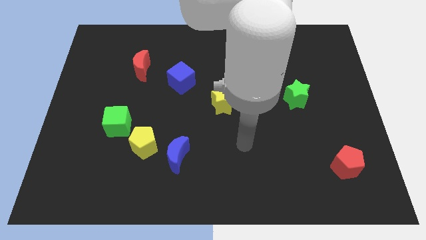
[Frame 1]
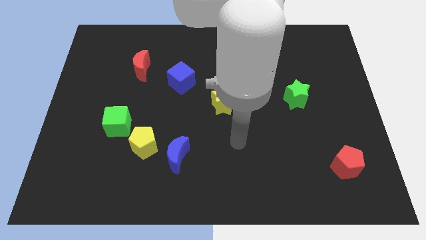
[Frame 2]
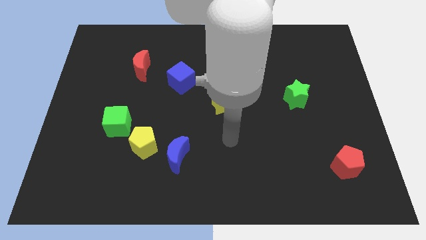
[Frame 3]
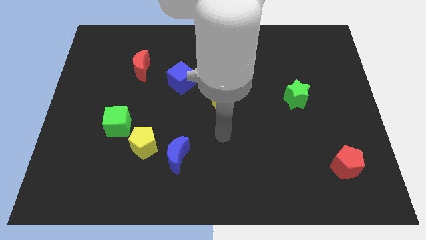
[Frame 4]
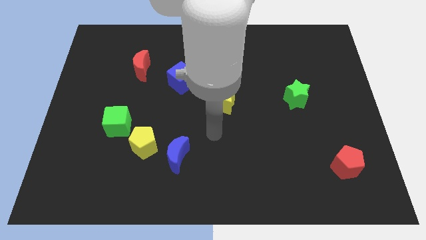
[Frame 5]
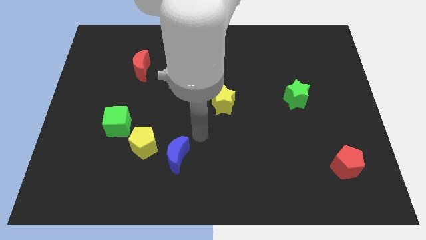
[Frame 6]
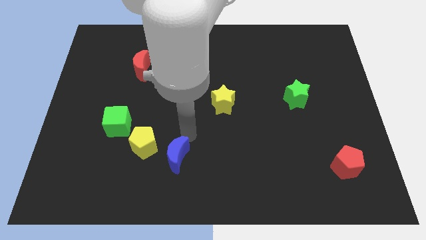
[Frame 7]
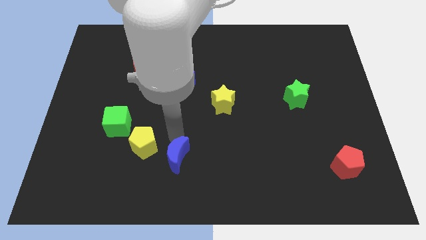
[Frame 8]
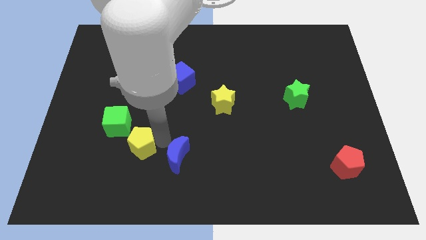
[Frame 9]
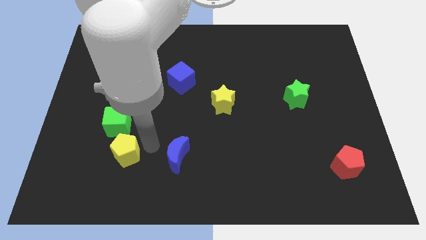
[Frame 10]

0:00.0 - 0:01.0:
move the blue moon away from the yellow pentagon

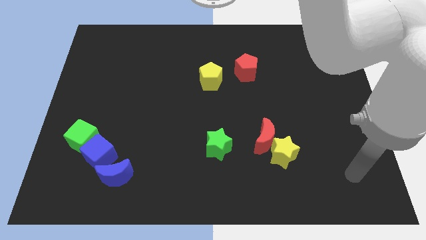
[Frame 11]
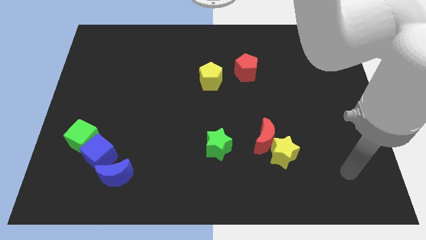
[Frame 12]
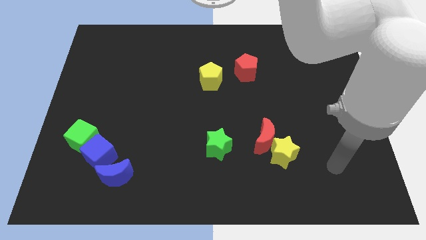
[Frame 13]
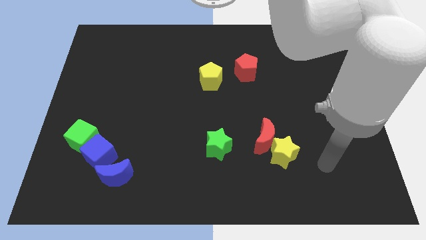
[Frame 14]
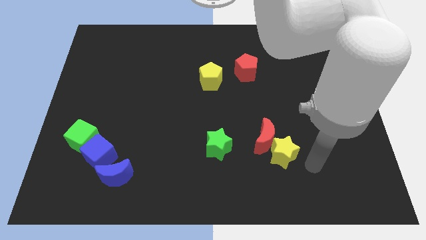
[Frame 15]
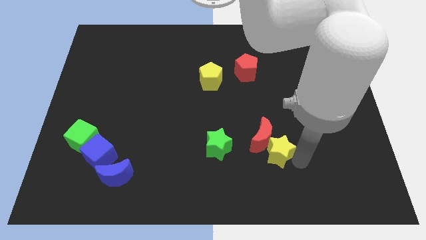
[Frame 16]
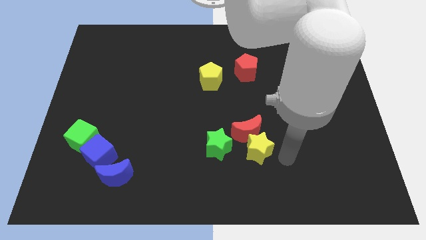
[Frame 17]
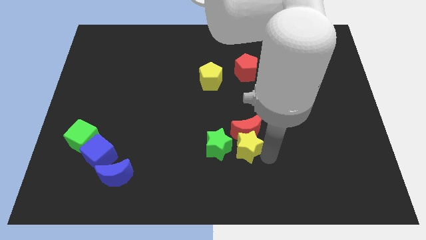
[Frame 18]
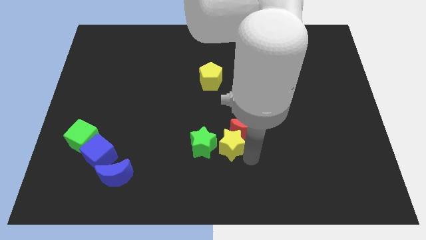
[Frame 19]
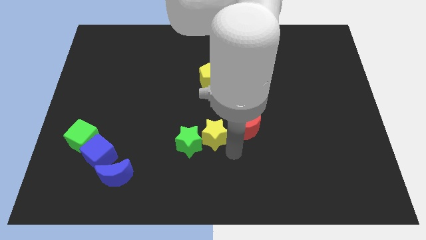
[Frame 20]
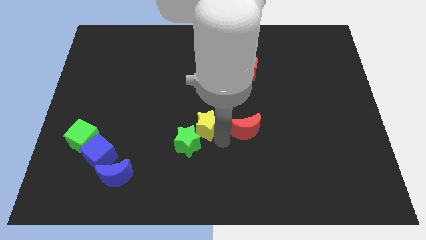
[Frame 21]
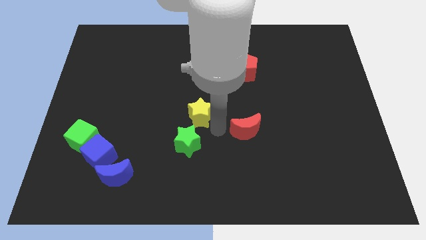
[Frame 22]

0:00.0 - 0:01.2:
move the red moon away from the yellow star

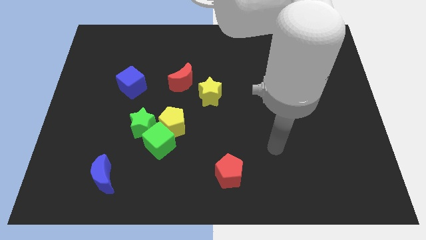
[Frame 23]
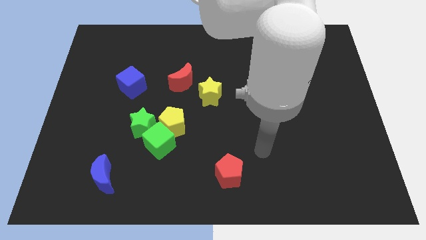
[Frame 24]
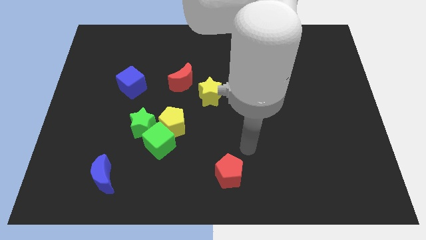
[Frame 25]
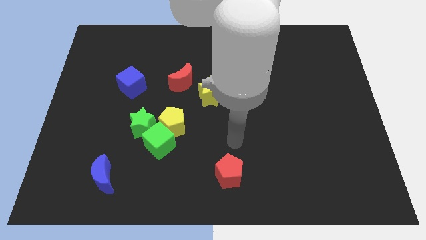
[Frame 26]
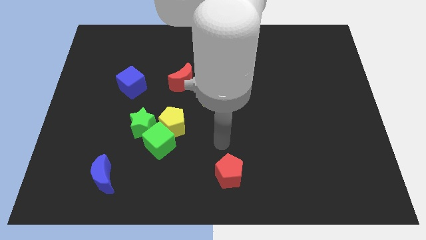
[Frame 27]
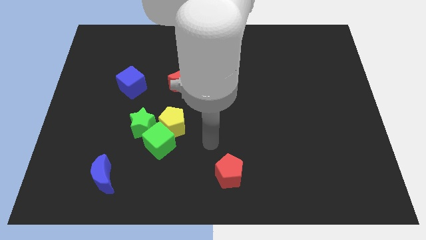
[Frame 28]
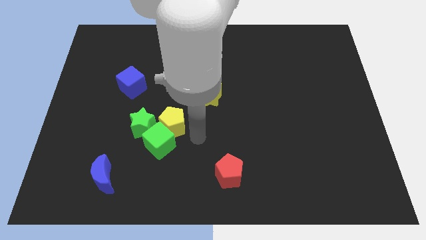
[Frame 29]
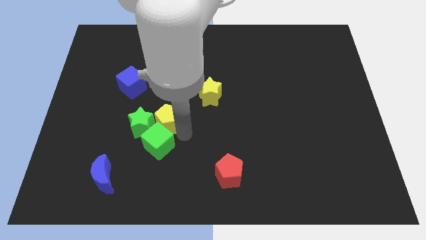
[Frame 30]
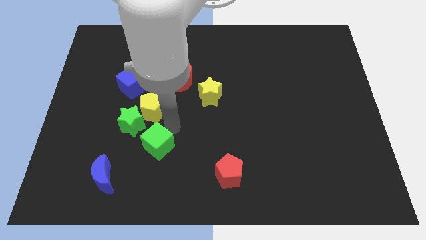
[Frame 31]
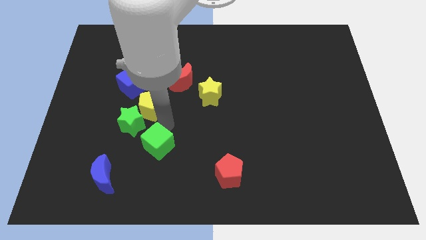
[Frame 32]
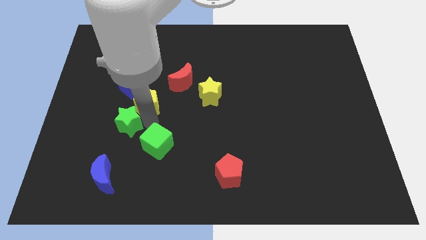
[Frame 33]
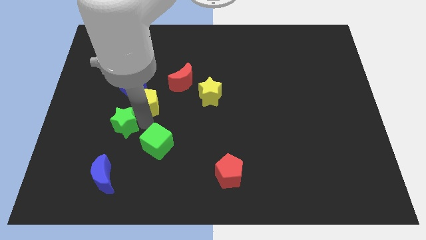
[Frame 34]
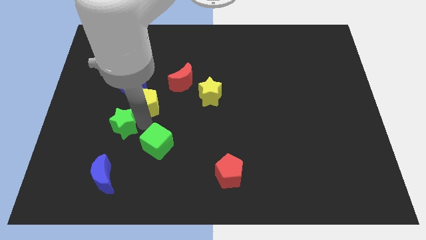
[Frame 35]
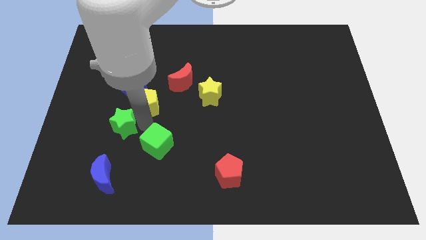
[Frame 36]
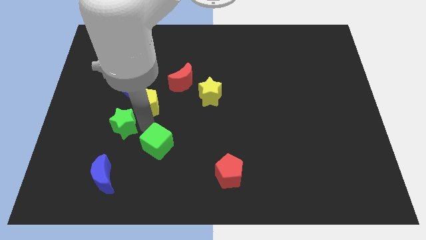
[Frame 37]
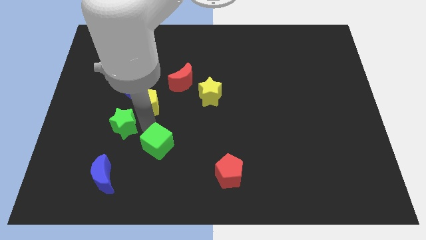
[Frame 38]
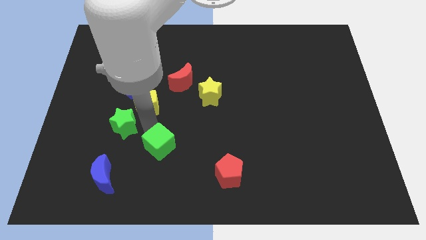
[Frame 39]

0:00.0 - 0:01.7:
pull the green cube apart from the yellow pentagon and green star

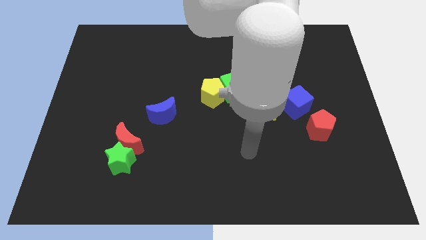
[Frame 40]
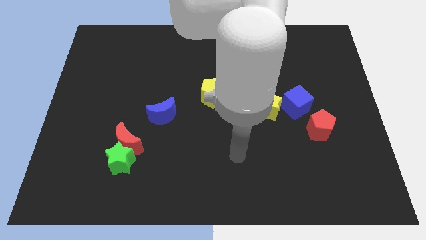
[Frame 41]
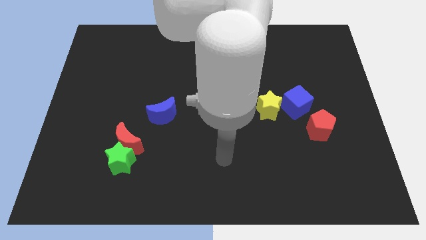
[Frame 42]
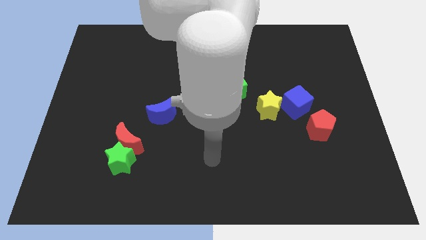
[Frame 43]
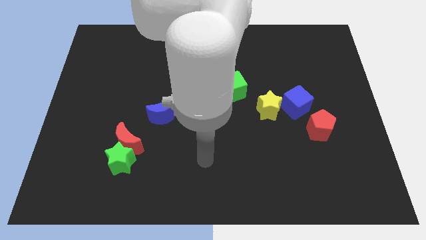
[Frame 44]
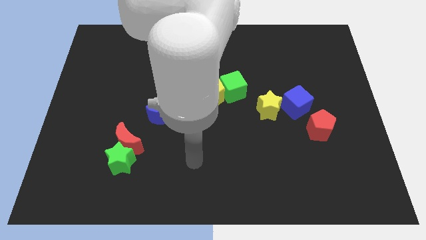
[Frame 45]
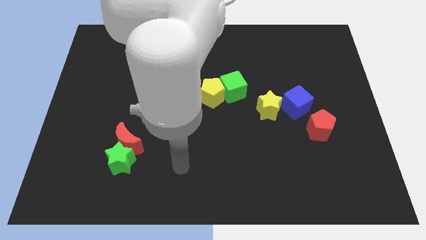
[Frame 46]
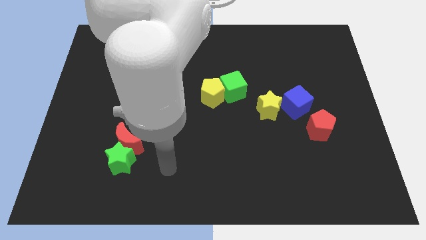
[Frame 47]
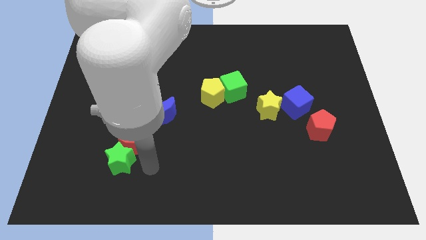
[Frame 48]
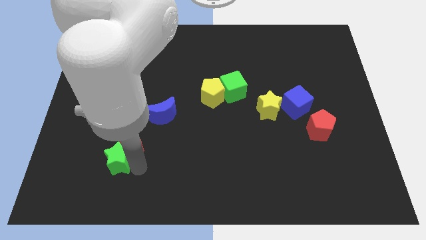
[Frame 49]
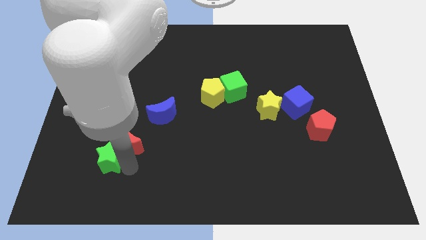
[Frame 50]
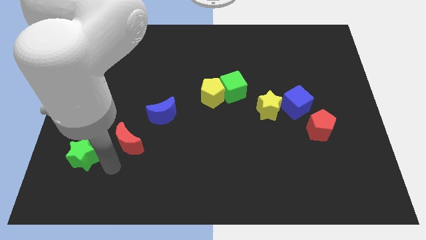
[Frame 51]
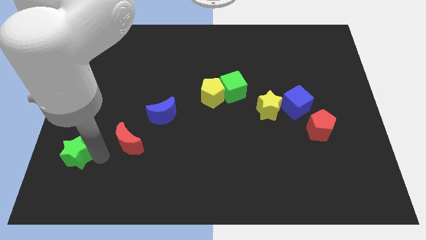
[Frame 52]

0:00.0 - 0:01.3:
separate the red moon from the green star

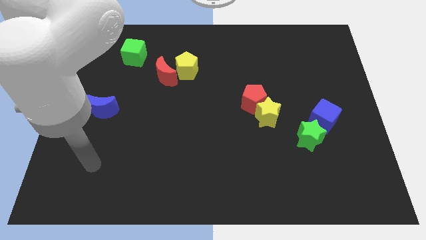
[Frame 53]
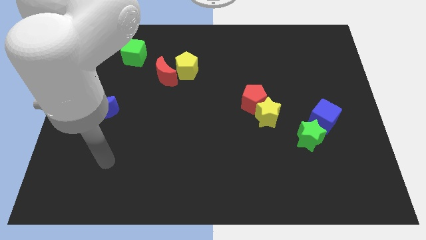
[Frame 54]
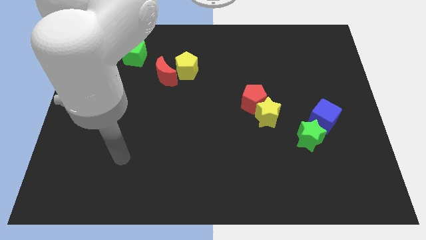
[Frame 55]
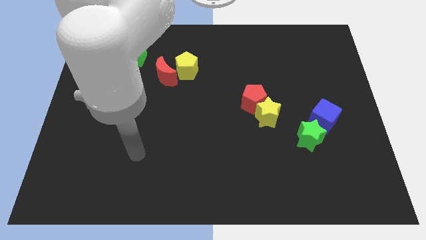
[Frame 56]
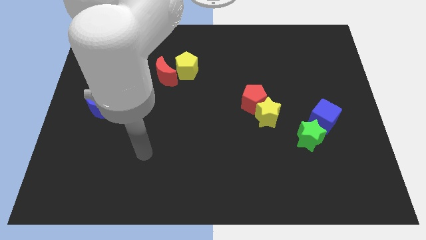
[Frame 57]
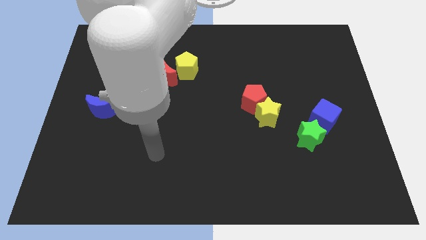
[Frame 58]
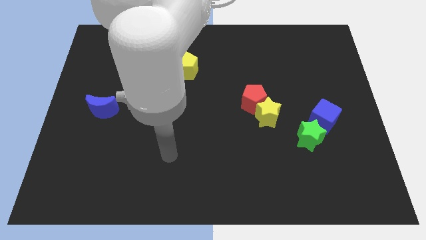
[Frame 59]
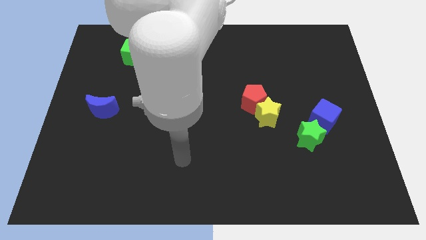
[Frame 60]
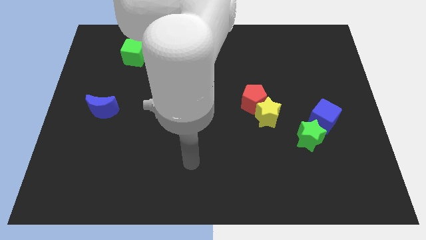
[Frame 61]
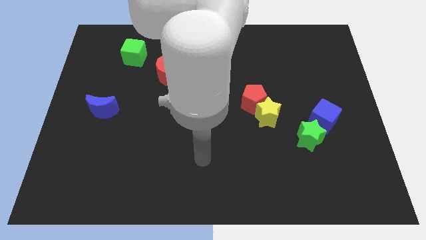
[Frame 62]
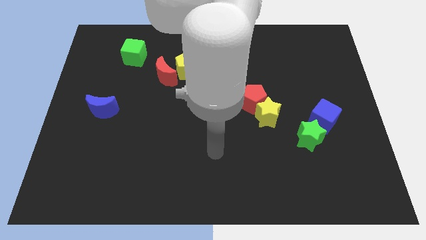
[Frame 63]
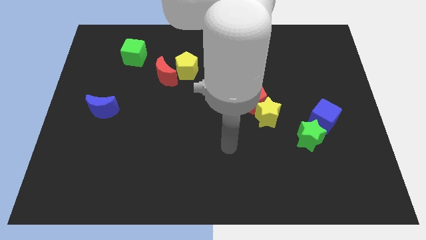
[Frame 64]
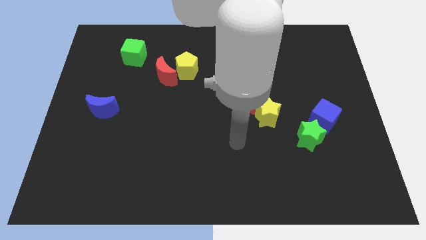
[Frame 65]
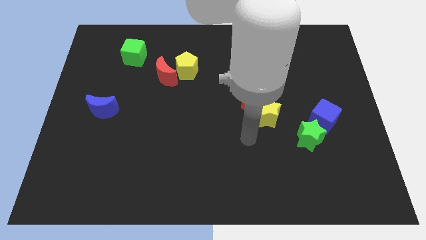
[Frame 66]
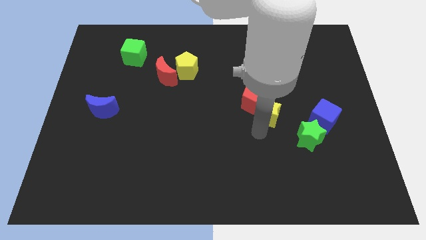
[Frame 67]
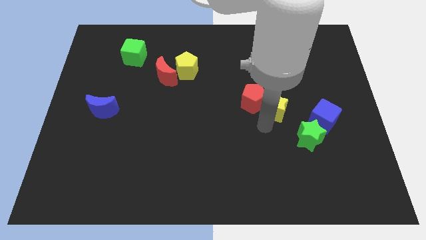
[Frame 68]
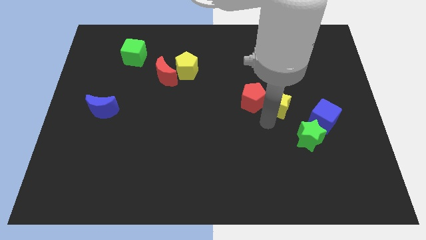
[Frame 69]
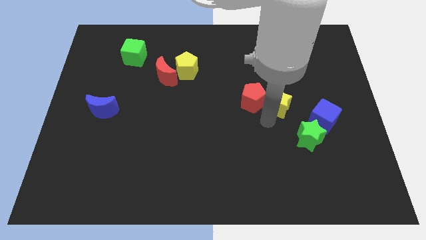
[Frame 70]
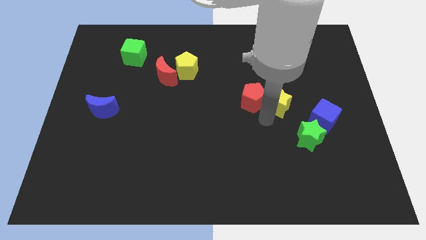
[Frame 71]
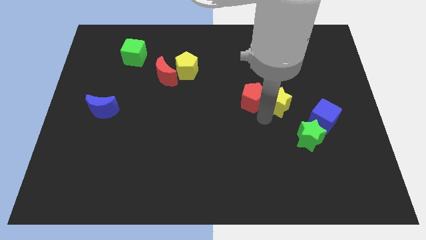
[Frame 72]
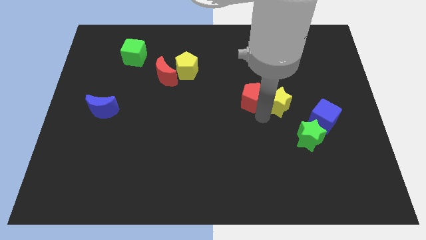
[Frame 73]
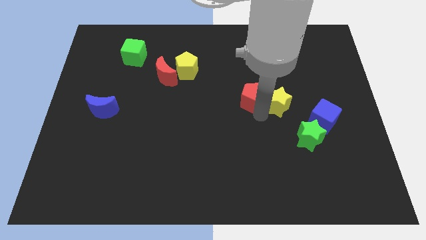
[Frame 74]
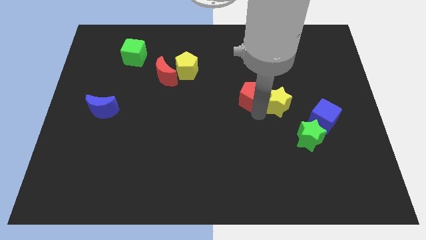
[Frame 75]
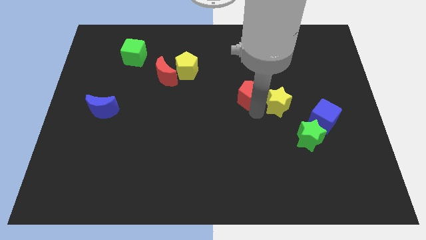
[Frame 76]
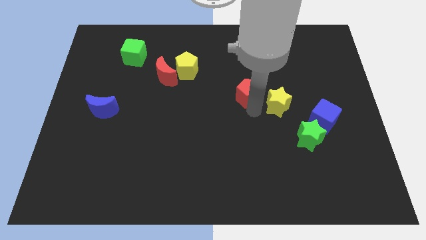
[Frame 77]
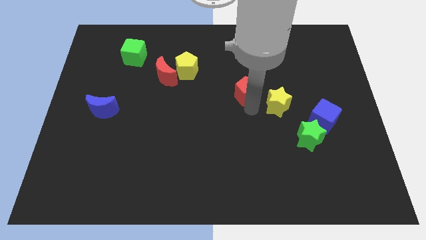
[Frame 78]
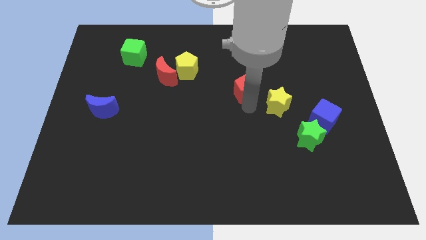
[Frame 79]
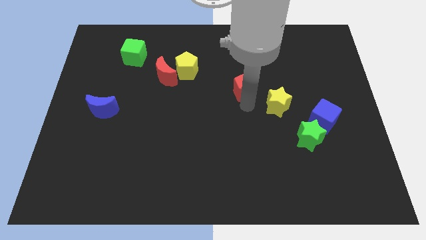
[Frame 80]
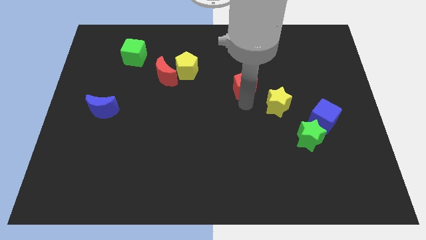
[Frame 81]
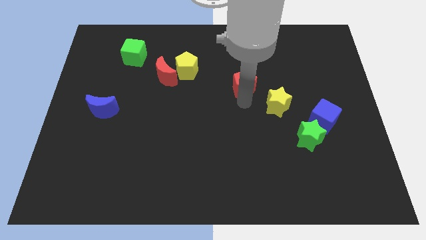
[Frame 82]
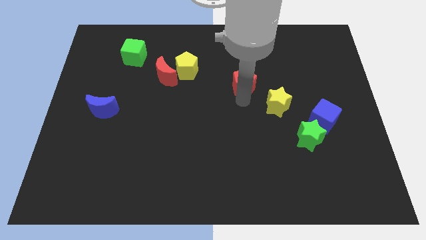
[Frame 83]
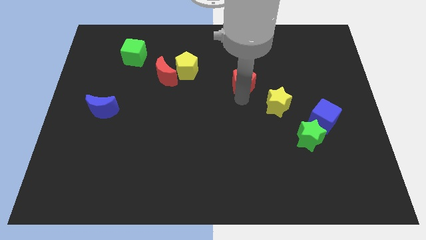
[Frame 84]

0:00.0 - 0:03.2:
pull the red pentagon apart from the yellow star

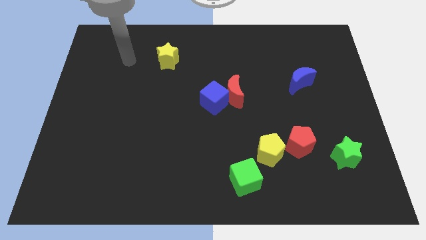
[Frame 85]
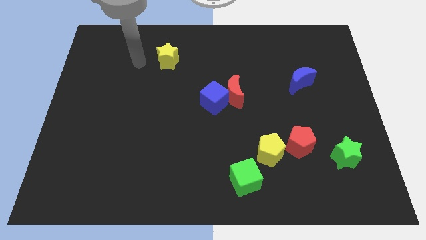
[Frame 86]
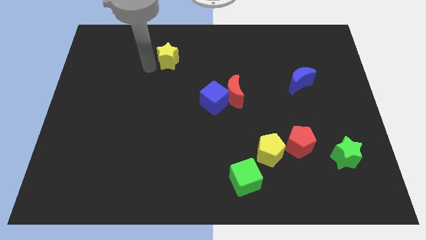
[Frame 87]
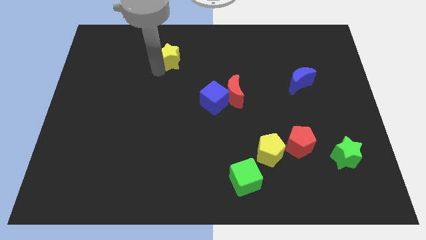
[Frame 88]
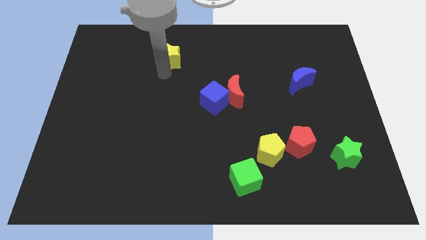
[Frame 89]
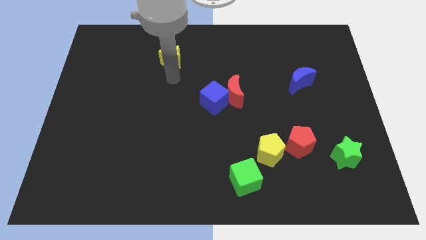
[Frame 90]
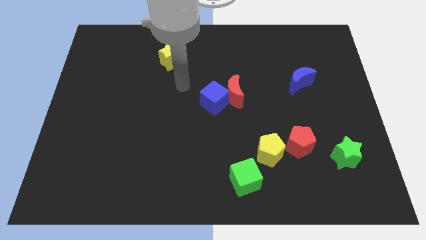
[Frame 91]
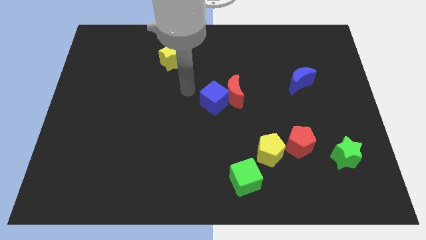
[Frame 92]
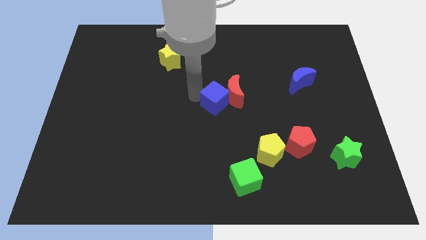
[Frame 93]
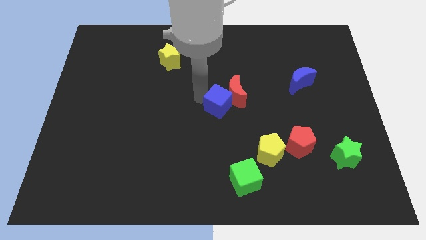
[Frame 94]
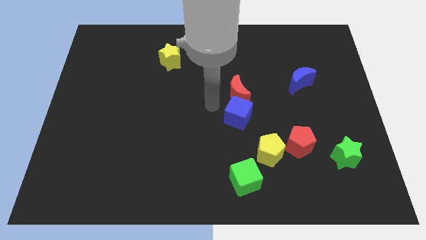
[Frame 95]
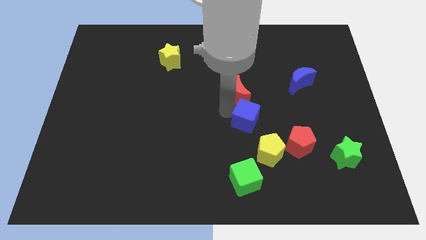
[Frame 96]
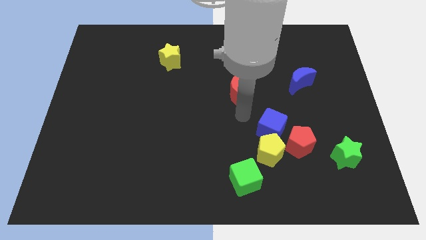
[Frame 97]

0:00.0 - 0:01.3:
move the red moon away from the blue cube
